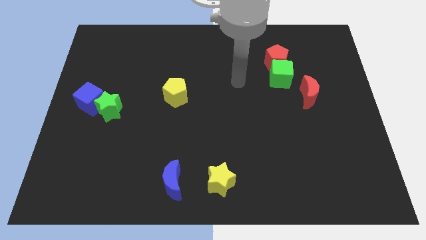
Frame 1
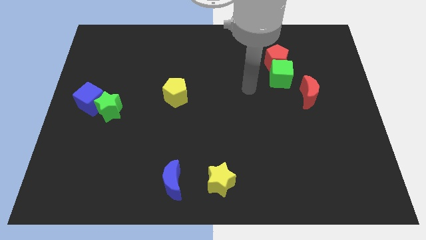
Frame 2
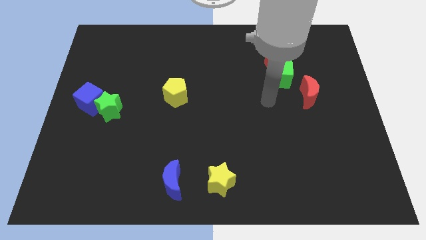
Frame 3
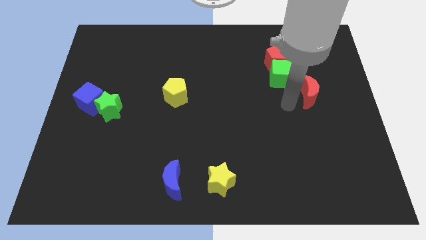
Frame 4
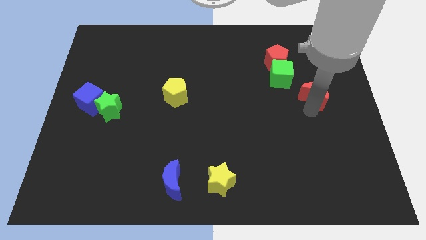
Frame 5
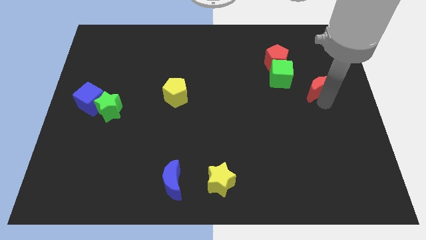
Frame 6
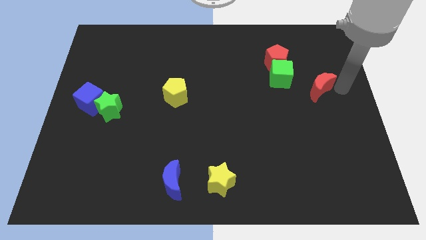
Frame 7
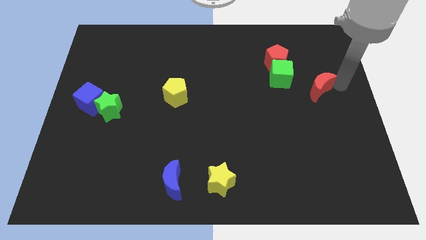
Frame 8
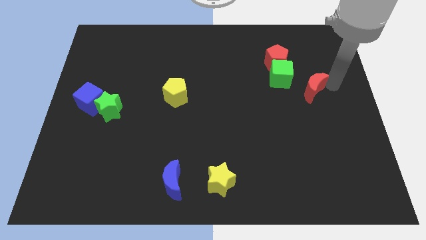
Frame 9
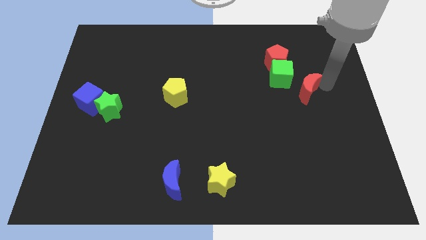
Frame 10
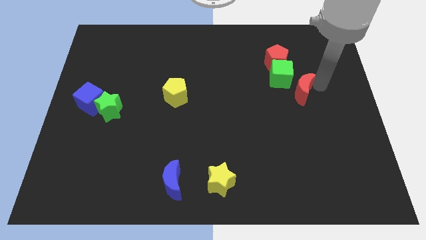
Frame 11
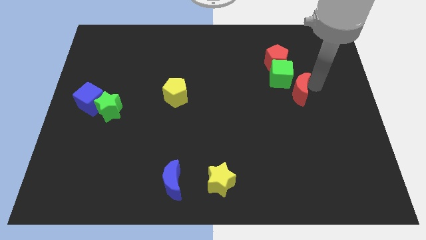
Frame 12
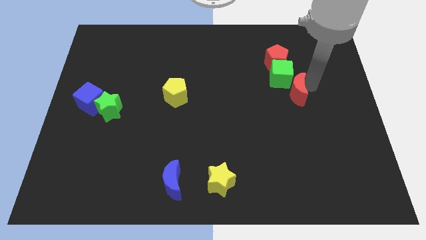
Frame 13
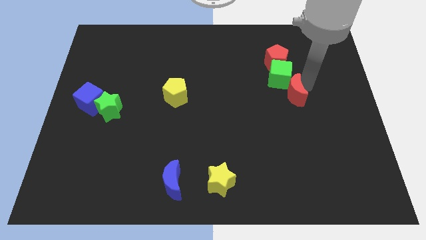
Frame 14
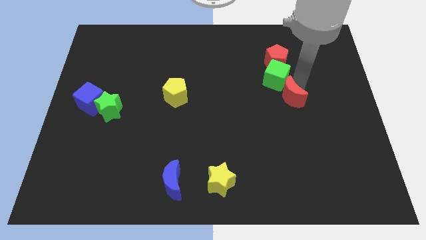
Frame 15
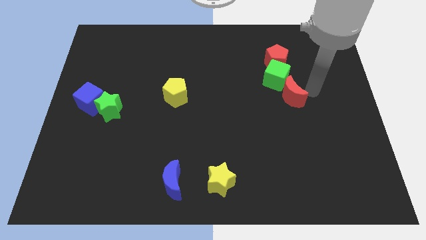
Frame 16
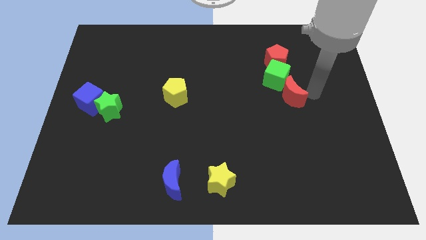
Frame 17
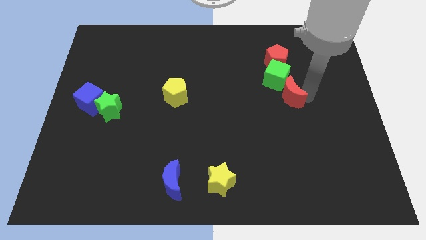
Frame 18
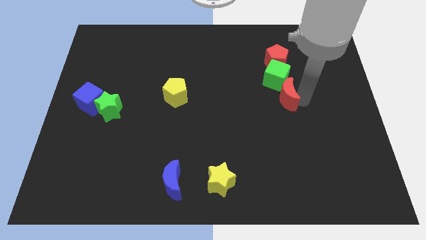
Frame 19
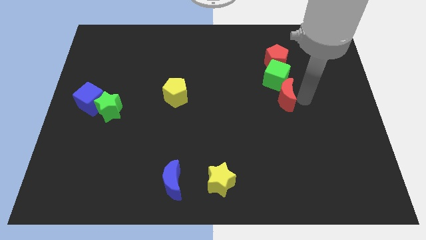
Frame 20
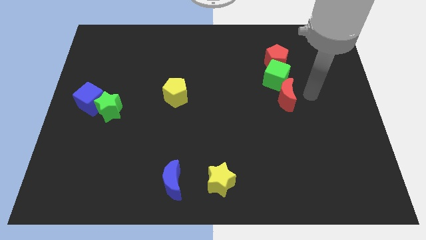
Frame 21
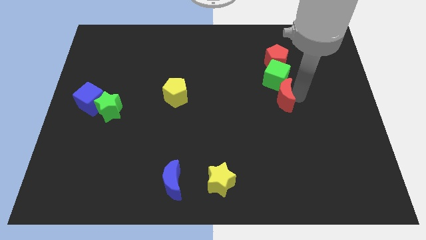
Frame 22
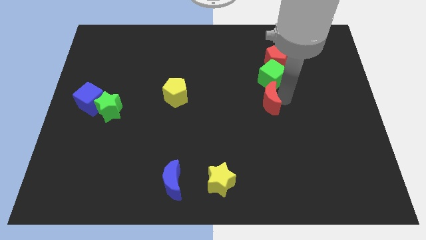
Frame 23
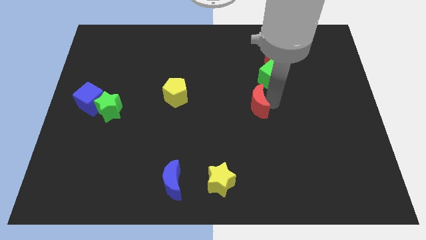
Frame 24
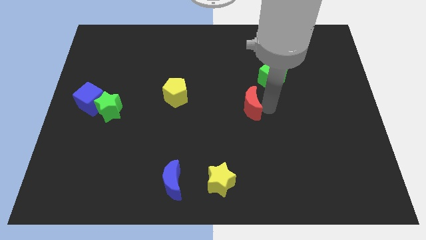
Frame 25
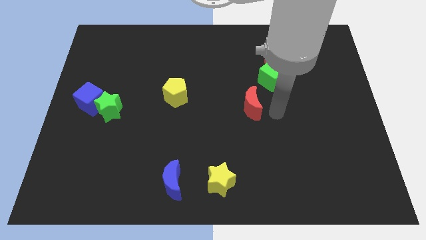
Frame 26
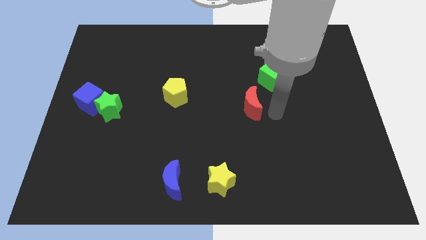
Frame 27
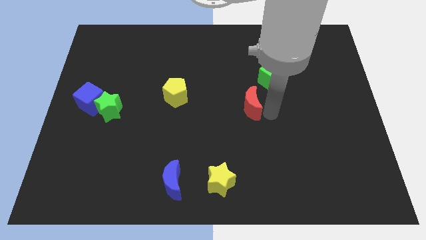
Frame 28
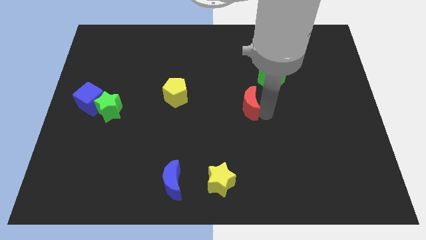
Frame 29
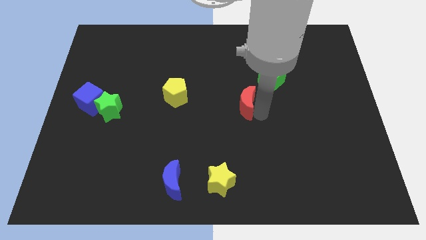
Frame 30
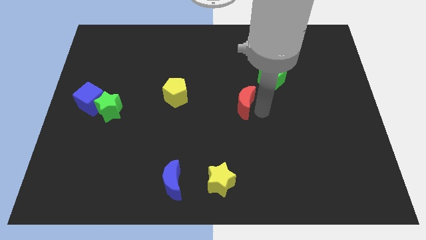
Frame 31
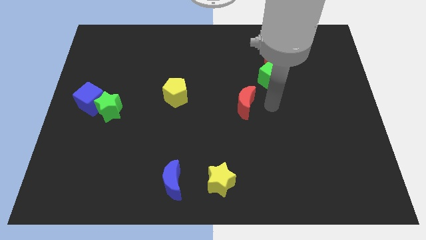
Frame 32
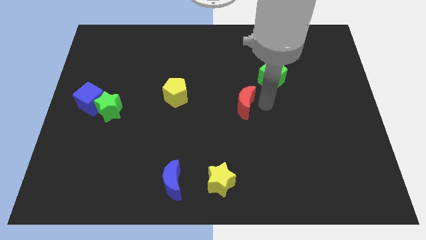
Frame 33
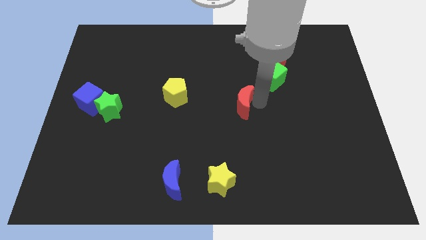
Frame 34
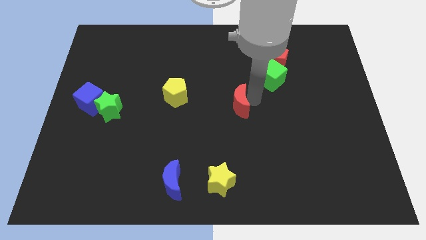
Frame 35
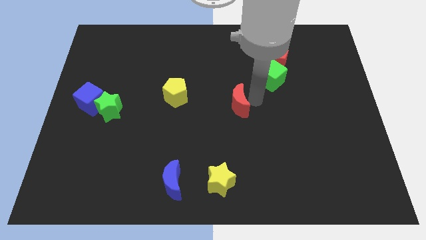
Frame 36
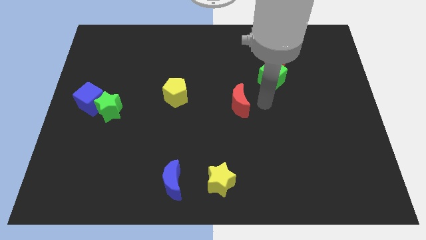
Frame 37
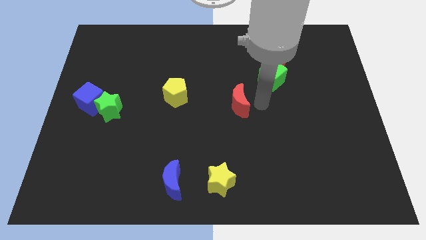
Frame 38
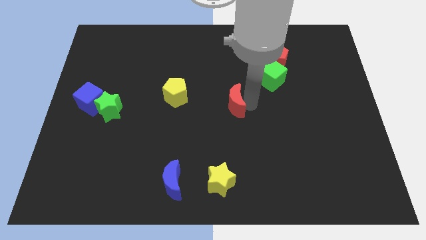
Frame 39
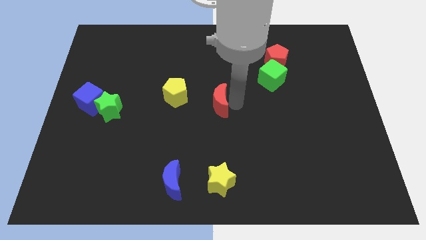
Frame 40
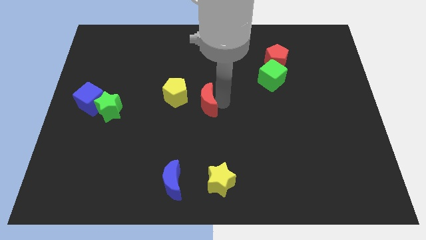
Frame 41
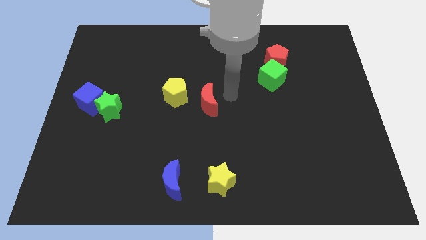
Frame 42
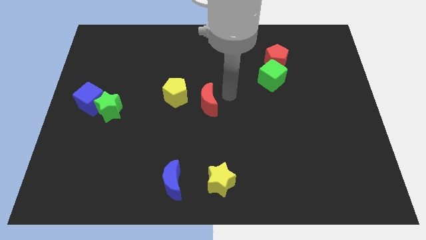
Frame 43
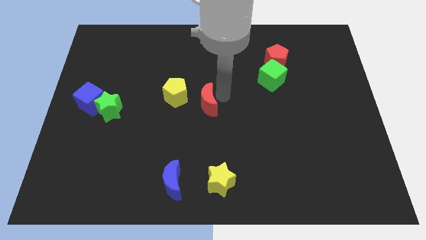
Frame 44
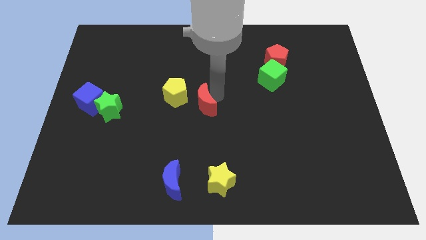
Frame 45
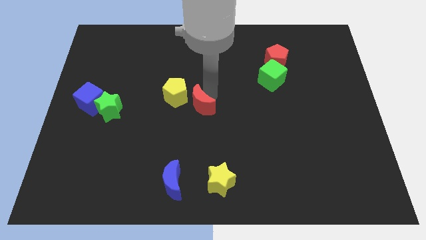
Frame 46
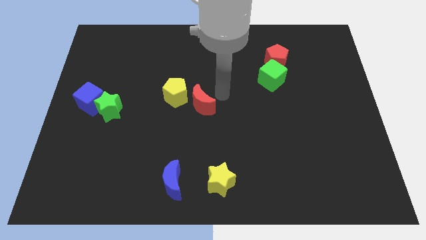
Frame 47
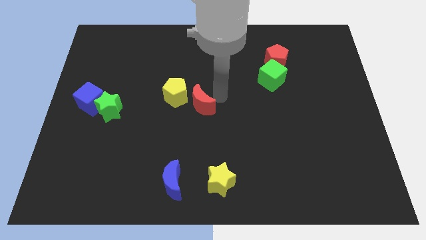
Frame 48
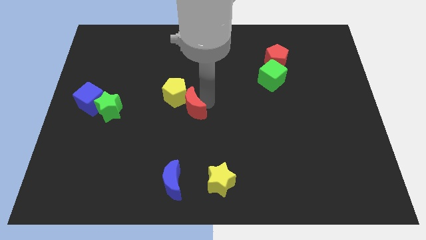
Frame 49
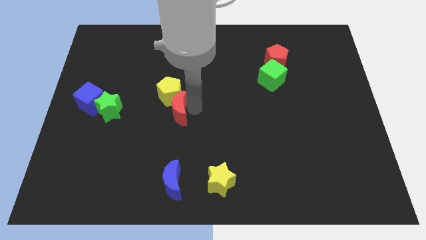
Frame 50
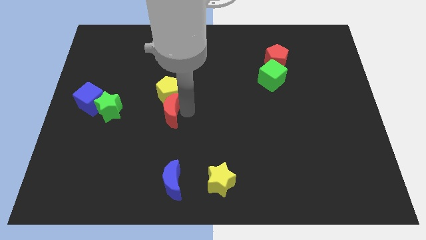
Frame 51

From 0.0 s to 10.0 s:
move the red moon to the bottom left side of the yellow pentagon

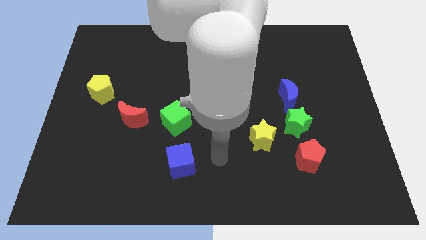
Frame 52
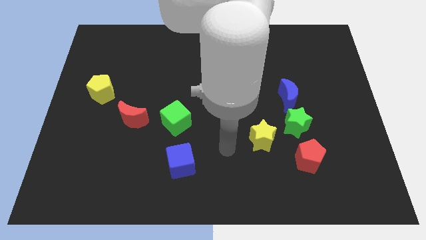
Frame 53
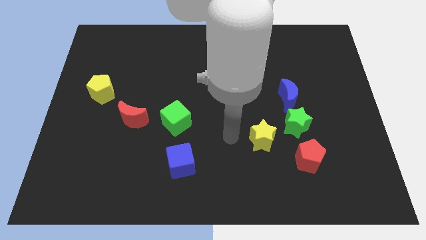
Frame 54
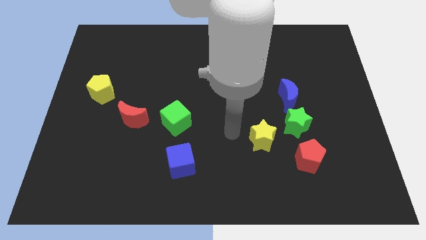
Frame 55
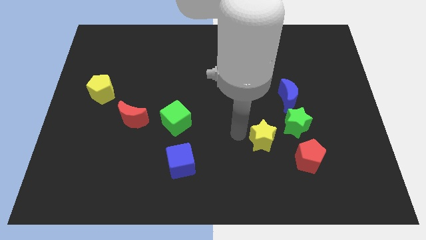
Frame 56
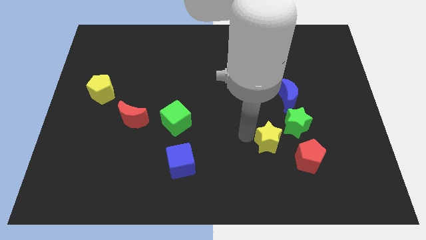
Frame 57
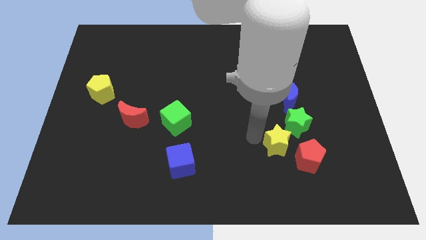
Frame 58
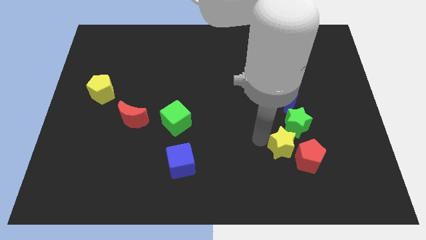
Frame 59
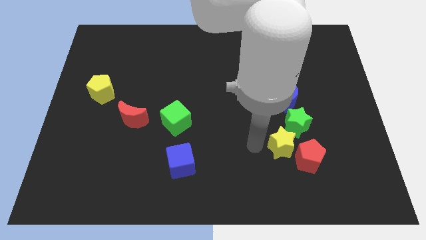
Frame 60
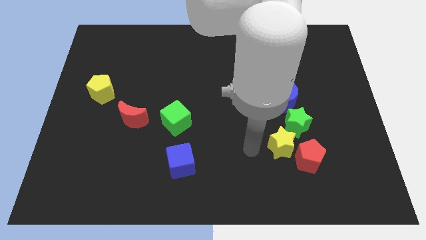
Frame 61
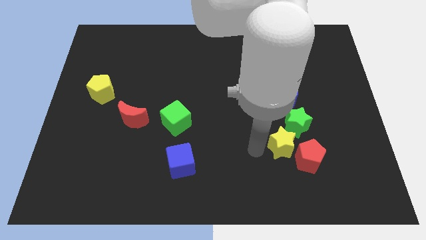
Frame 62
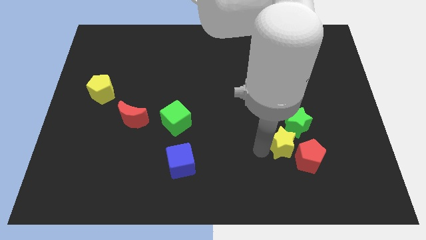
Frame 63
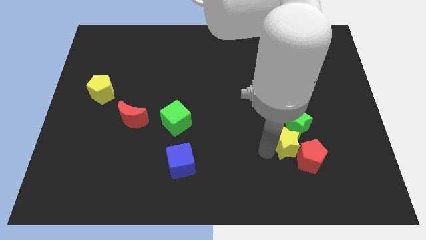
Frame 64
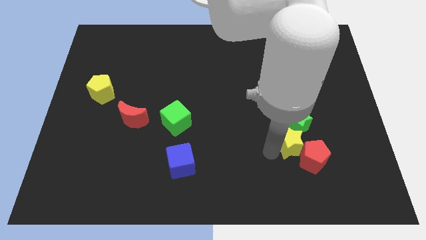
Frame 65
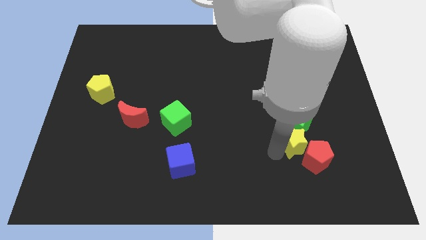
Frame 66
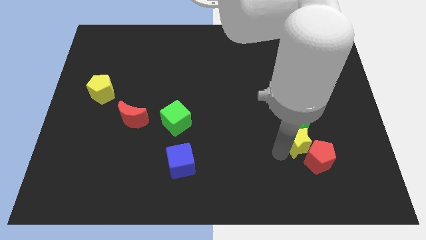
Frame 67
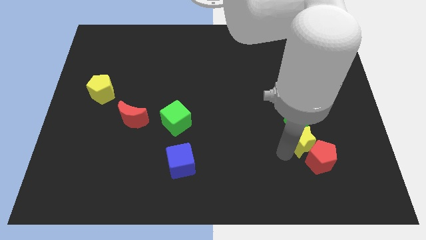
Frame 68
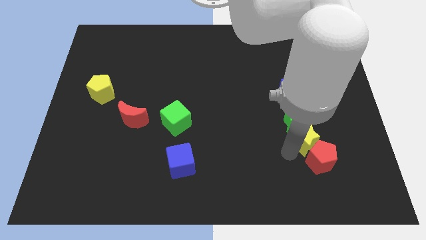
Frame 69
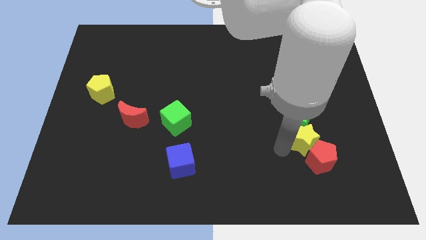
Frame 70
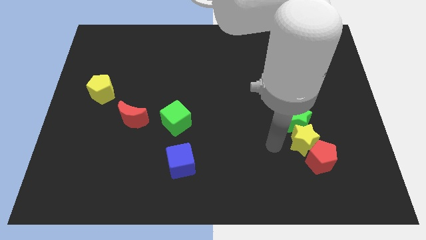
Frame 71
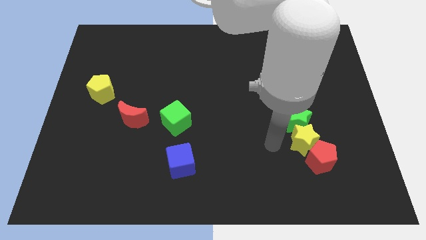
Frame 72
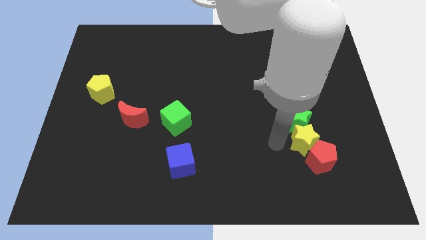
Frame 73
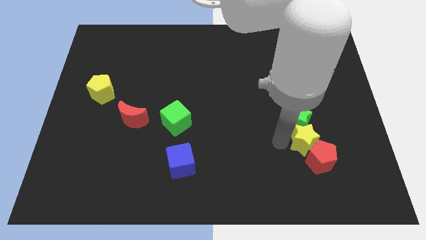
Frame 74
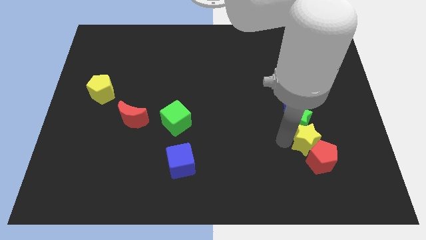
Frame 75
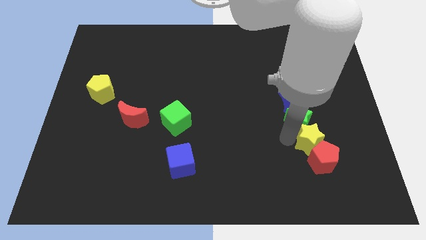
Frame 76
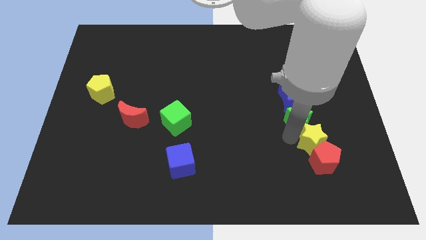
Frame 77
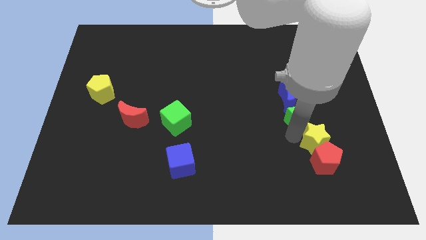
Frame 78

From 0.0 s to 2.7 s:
slide the yellow star to the top right side of the red pentagon
